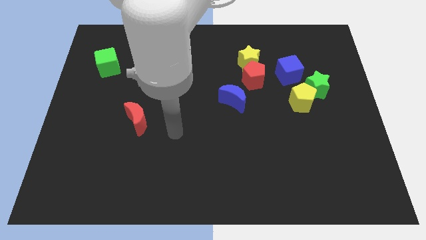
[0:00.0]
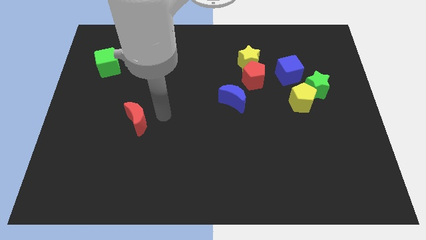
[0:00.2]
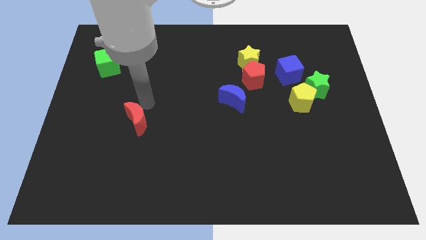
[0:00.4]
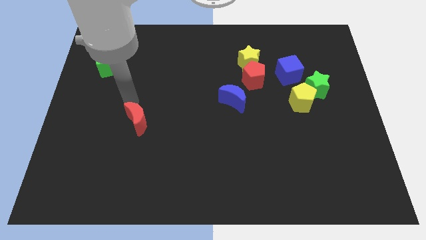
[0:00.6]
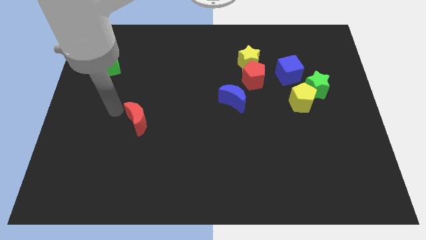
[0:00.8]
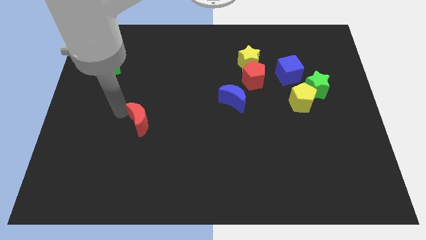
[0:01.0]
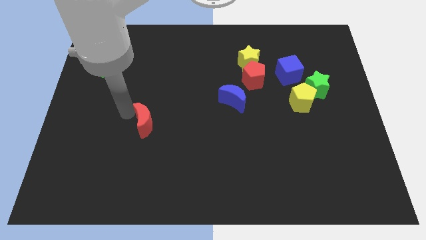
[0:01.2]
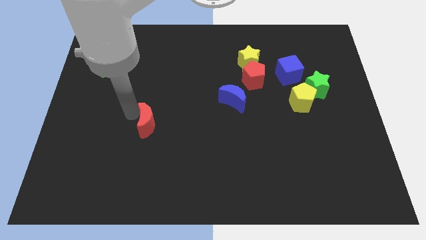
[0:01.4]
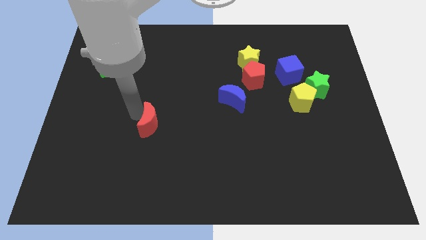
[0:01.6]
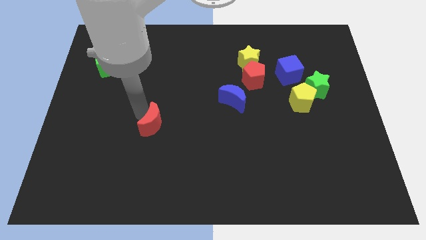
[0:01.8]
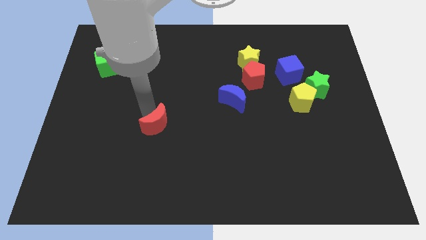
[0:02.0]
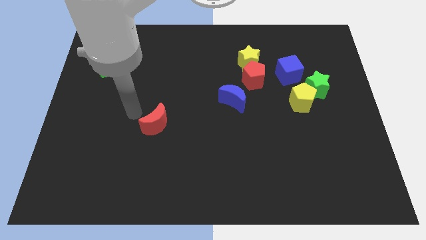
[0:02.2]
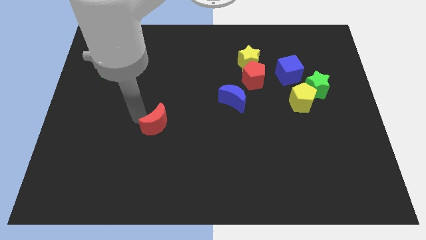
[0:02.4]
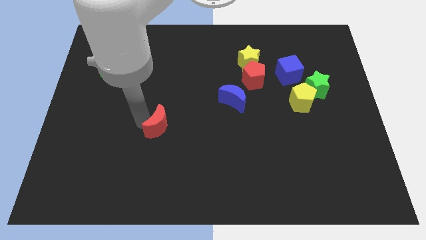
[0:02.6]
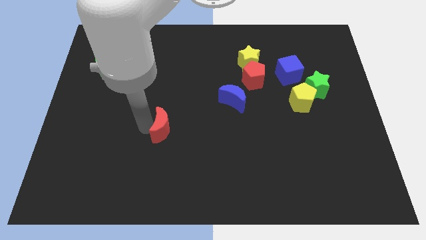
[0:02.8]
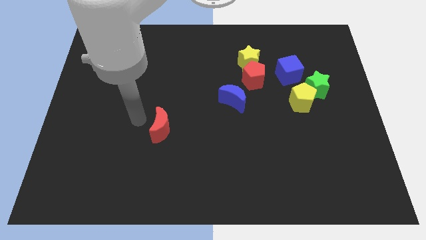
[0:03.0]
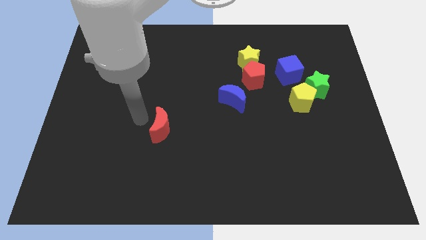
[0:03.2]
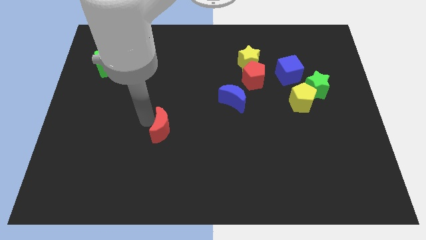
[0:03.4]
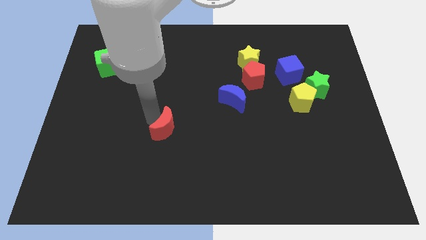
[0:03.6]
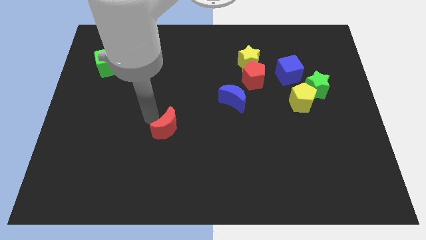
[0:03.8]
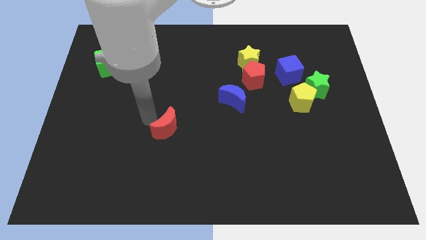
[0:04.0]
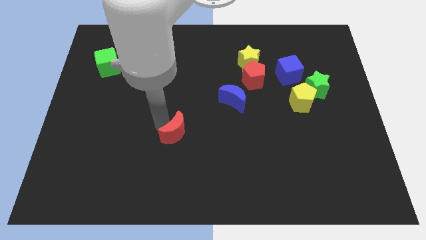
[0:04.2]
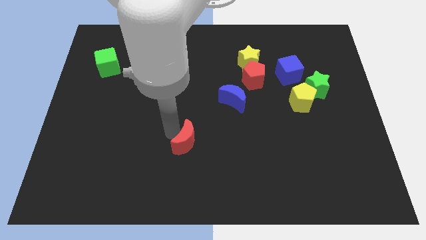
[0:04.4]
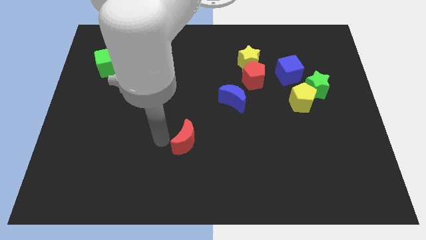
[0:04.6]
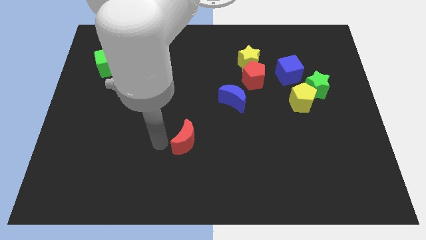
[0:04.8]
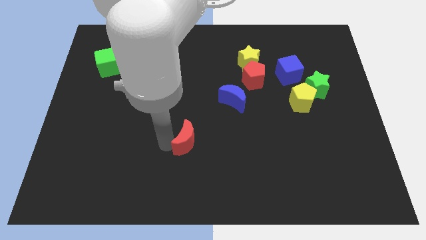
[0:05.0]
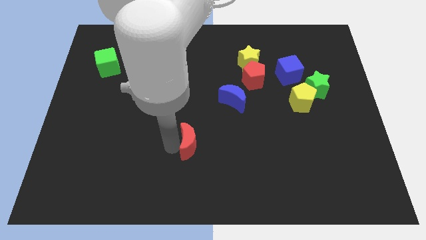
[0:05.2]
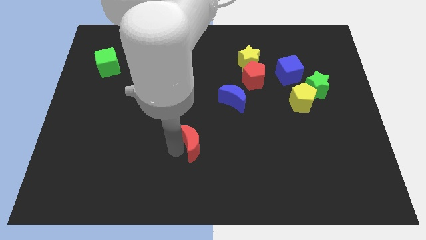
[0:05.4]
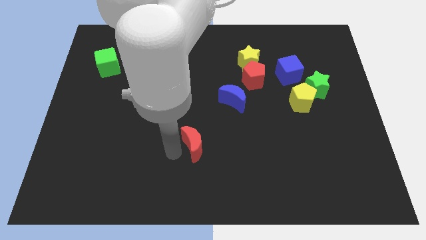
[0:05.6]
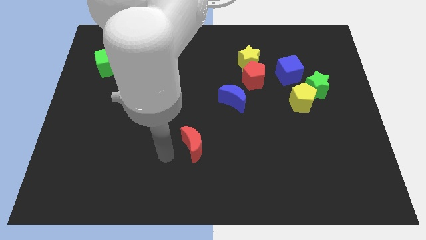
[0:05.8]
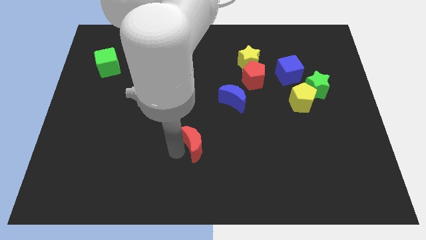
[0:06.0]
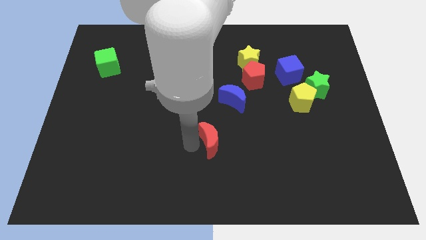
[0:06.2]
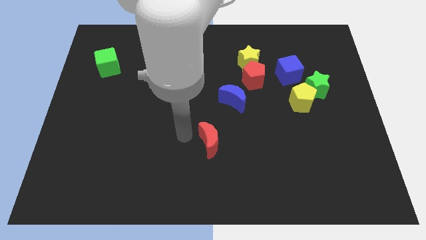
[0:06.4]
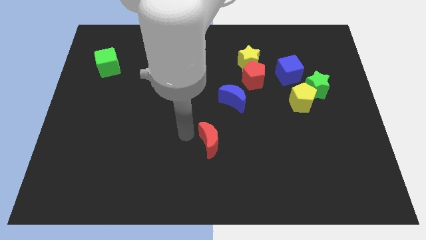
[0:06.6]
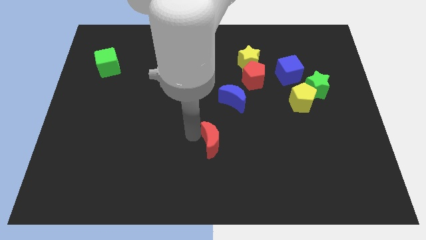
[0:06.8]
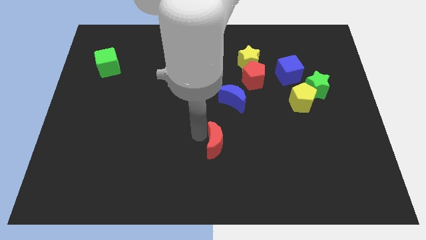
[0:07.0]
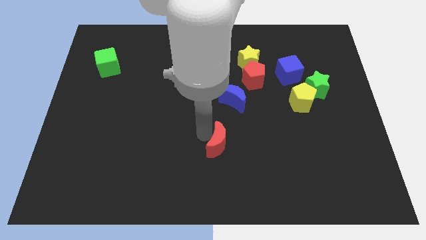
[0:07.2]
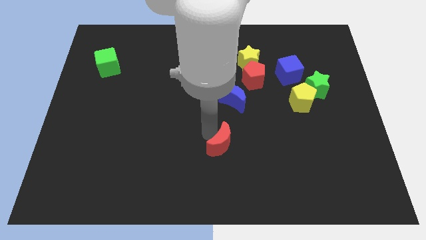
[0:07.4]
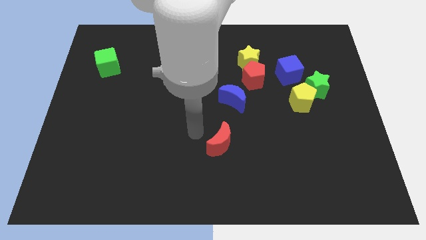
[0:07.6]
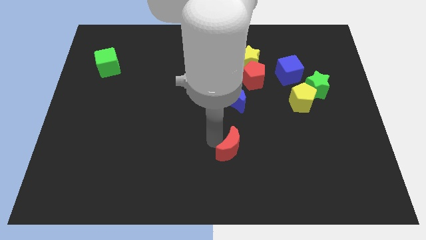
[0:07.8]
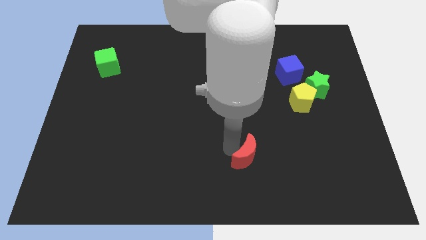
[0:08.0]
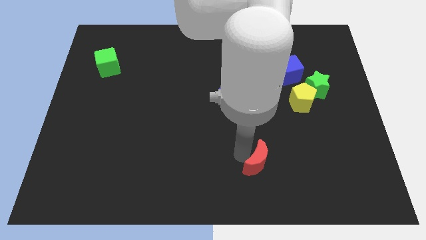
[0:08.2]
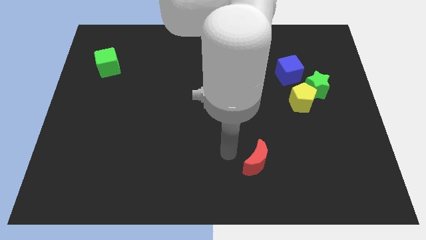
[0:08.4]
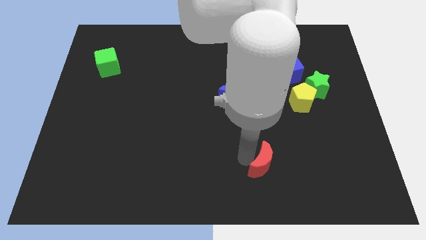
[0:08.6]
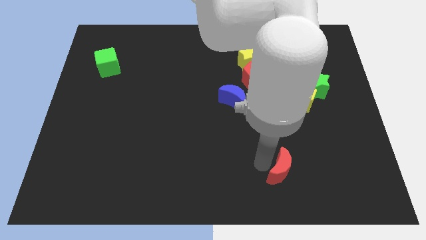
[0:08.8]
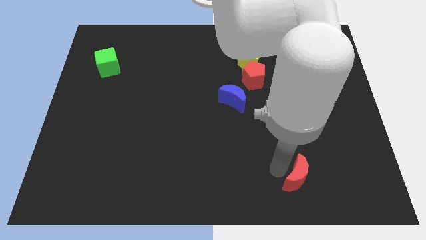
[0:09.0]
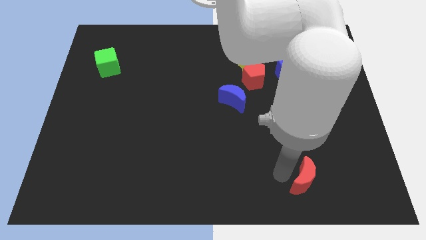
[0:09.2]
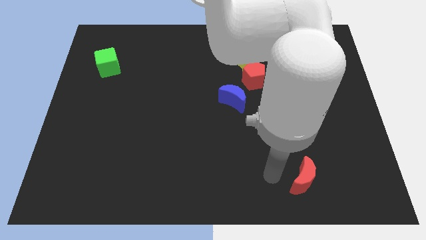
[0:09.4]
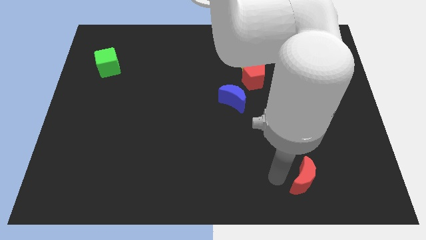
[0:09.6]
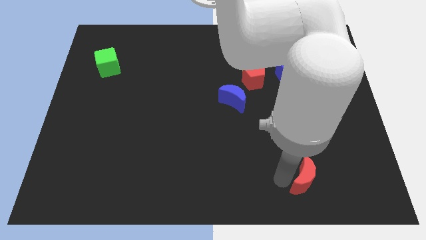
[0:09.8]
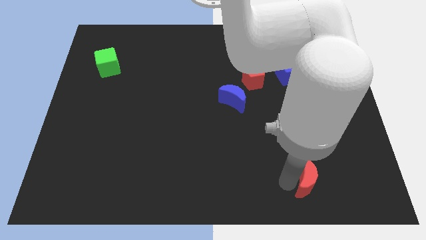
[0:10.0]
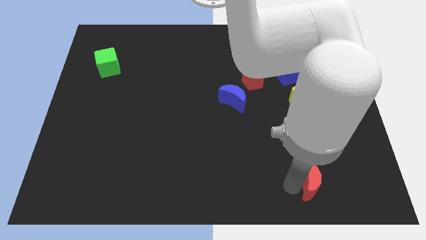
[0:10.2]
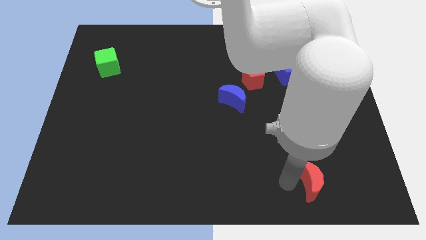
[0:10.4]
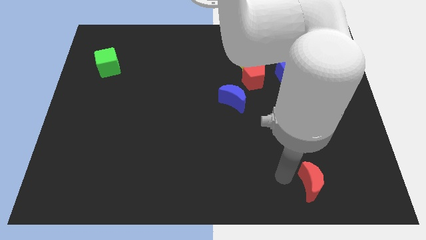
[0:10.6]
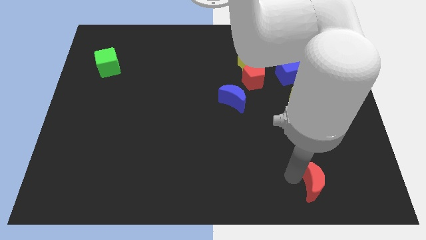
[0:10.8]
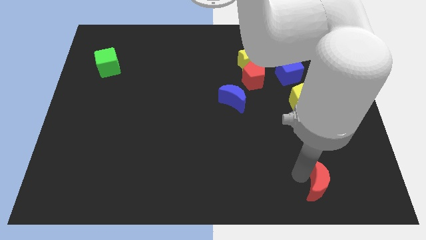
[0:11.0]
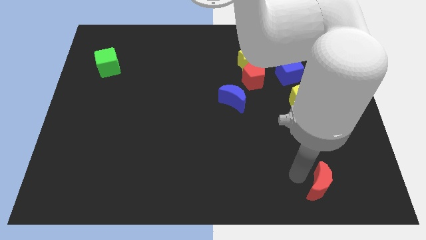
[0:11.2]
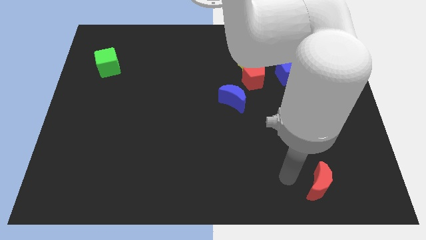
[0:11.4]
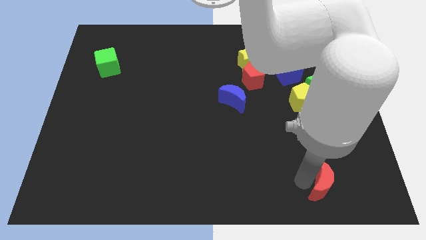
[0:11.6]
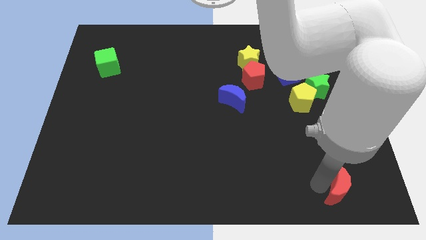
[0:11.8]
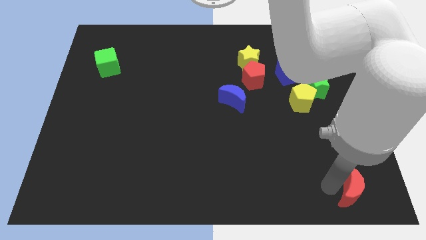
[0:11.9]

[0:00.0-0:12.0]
push the red moon to the lower right corner

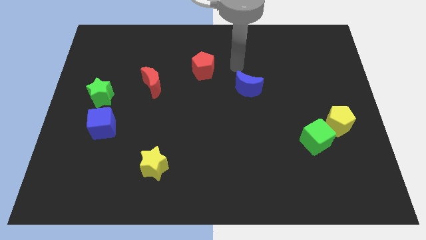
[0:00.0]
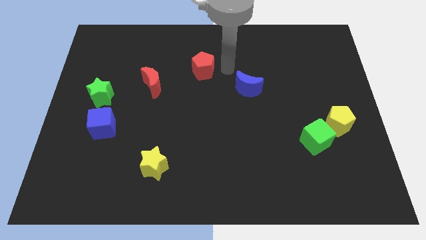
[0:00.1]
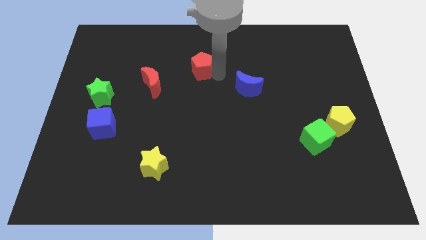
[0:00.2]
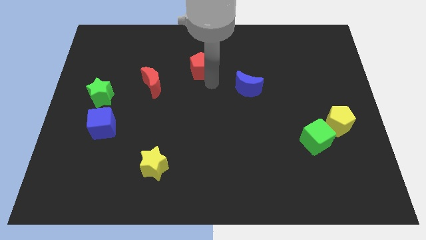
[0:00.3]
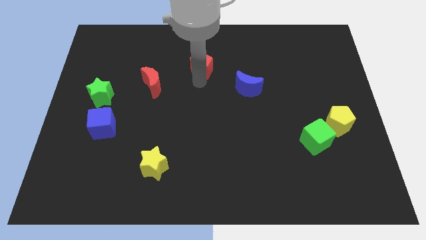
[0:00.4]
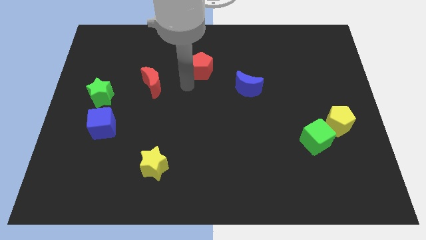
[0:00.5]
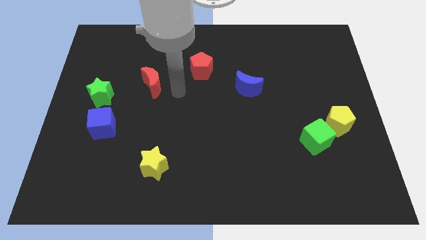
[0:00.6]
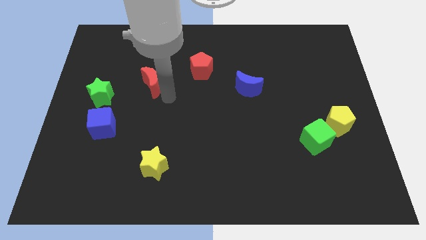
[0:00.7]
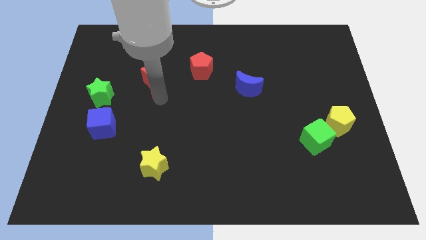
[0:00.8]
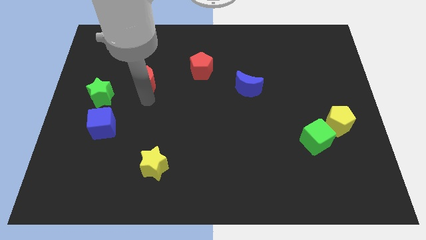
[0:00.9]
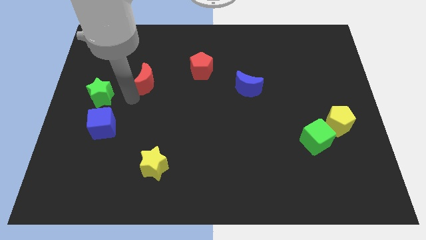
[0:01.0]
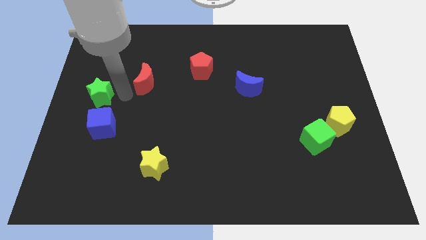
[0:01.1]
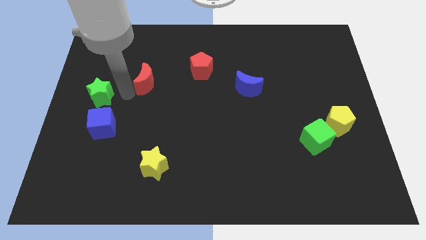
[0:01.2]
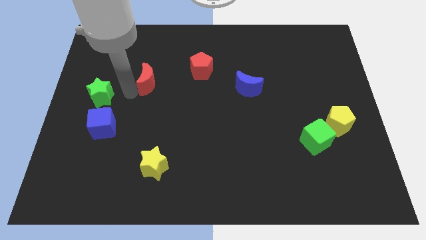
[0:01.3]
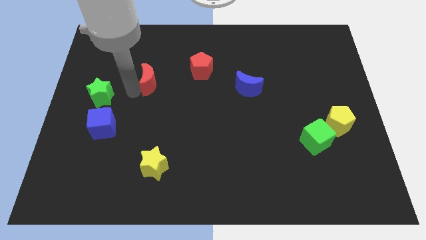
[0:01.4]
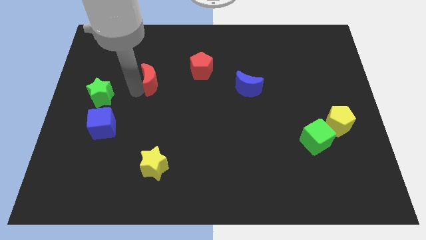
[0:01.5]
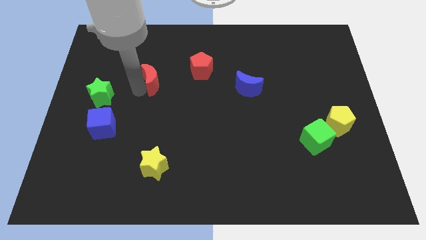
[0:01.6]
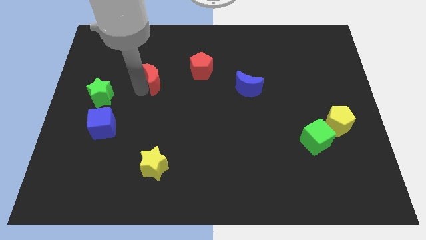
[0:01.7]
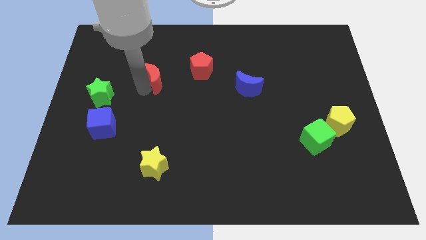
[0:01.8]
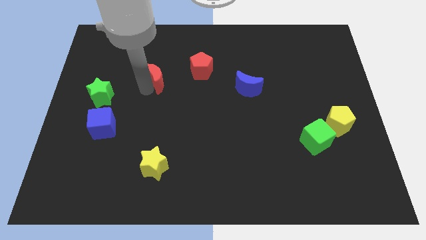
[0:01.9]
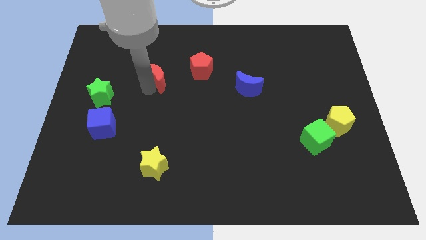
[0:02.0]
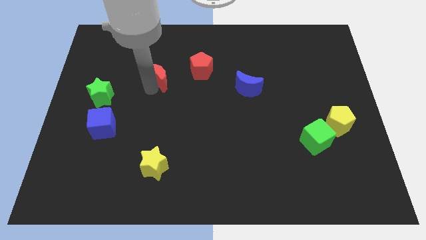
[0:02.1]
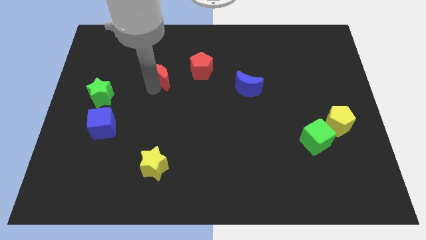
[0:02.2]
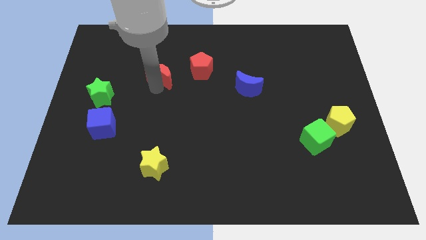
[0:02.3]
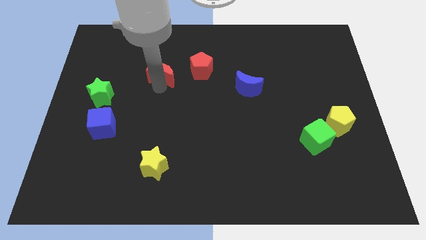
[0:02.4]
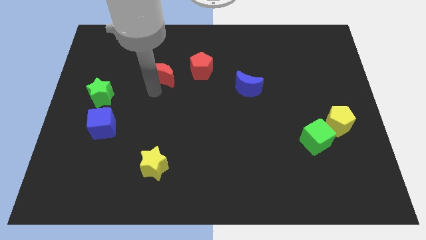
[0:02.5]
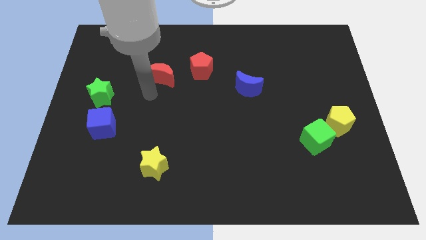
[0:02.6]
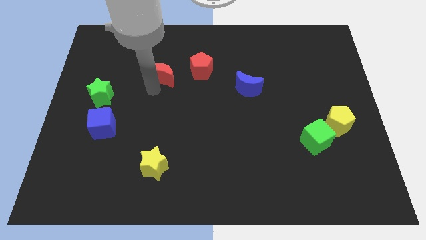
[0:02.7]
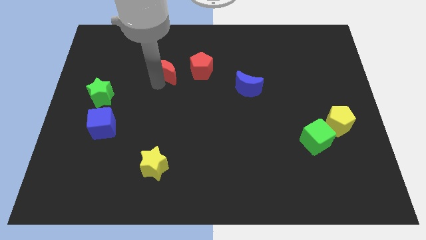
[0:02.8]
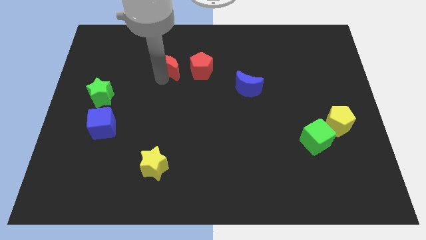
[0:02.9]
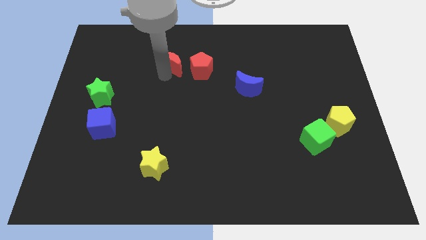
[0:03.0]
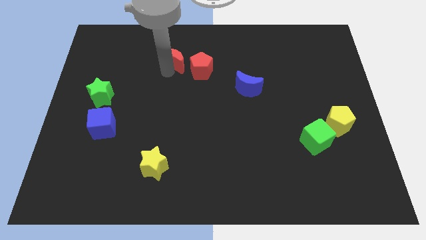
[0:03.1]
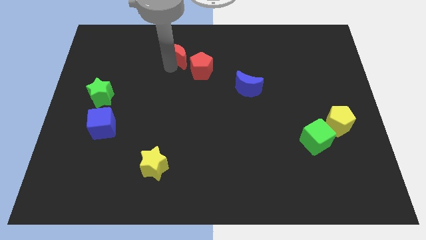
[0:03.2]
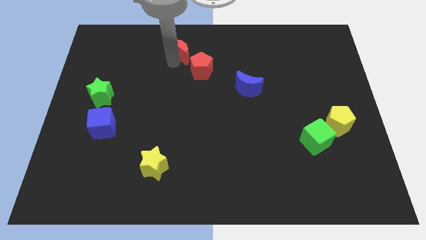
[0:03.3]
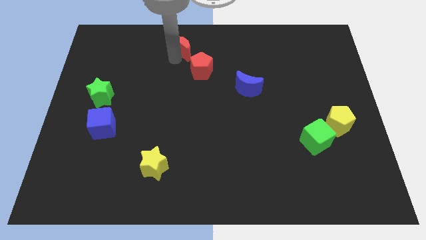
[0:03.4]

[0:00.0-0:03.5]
slide the red moon to the top side
